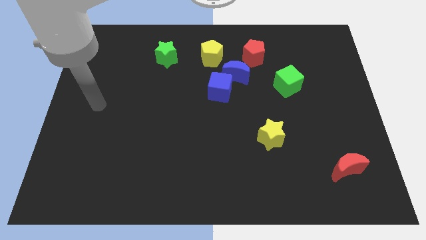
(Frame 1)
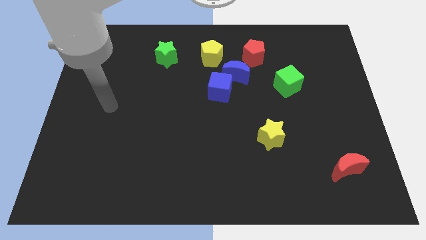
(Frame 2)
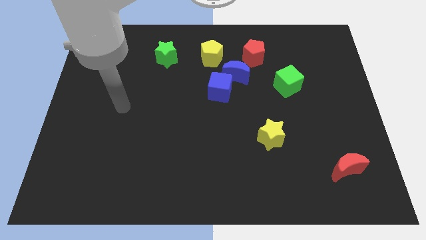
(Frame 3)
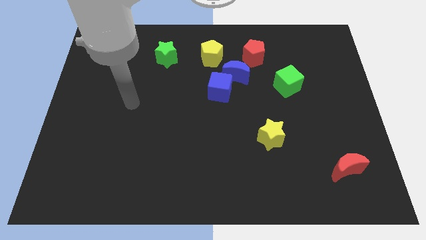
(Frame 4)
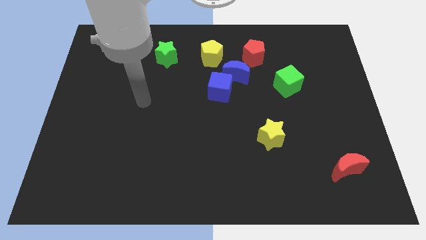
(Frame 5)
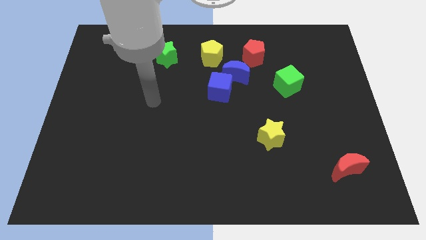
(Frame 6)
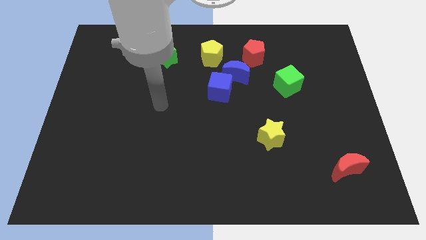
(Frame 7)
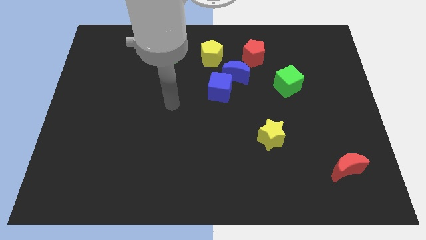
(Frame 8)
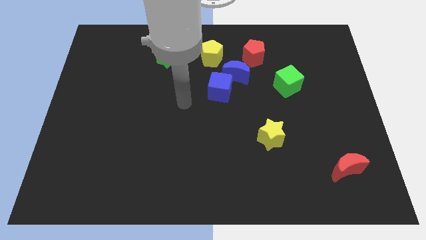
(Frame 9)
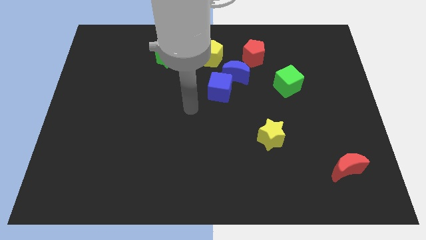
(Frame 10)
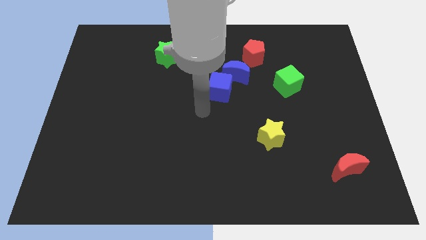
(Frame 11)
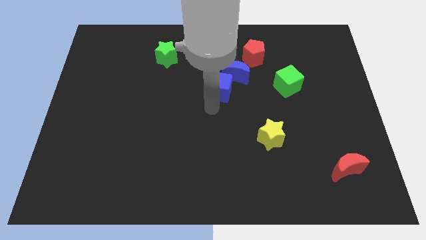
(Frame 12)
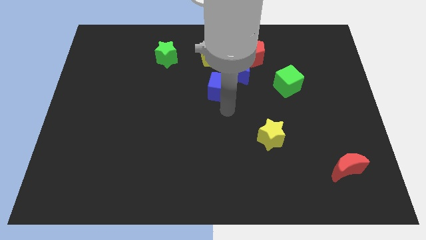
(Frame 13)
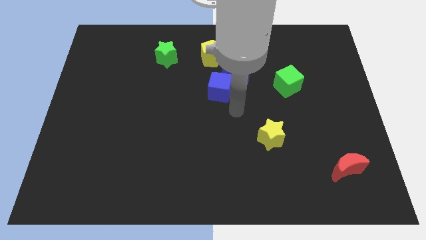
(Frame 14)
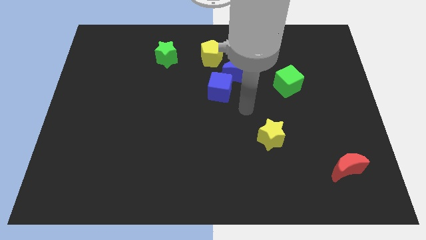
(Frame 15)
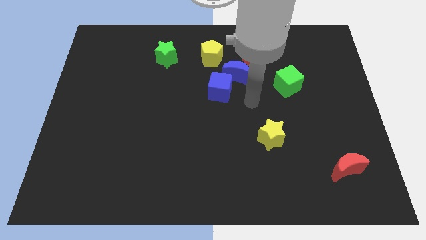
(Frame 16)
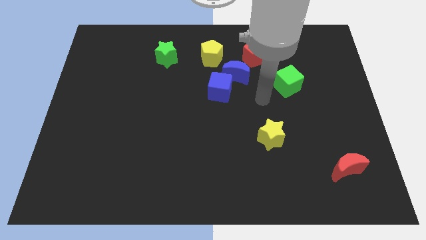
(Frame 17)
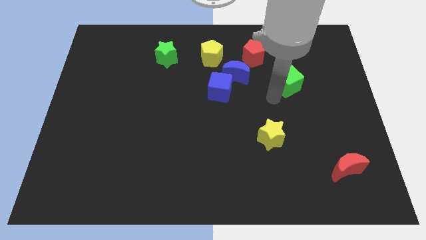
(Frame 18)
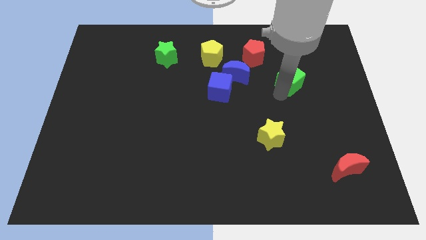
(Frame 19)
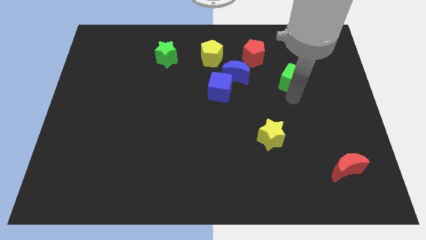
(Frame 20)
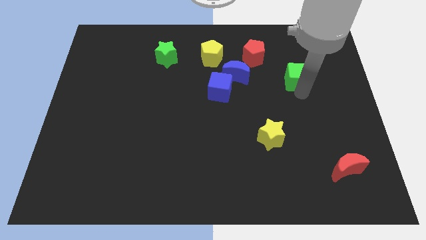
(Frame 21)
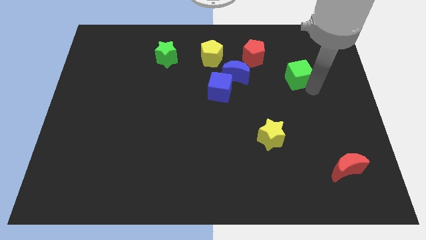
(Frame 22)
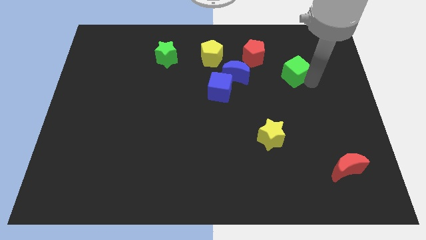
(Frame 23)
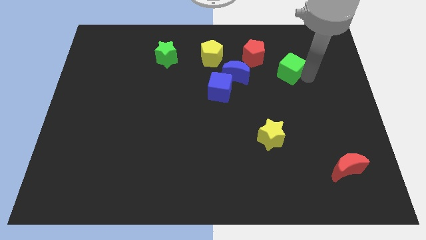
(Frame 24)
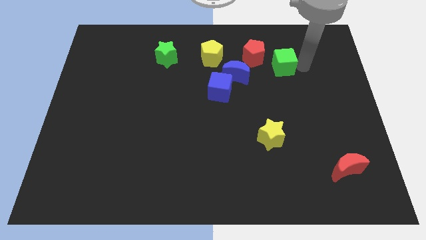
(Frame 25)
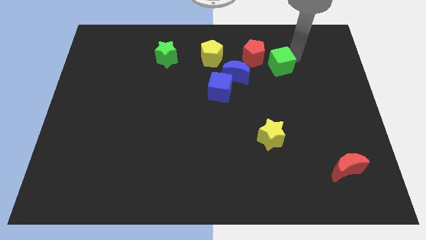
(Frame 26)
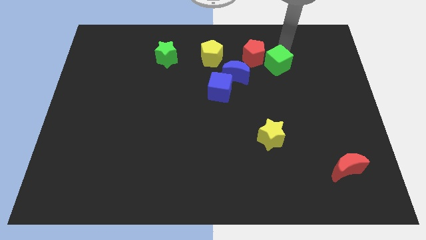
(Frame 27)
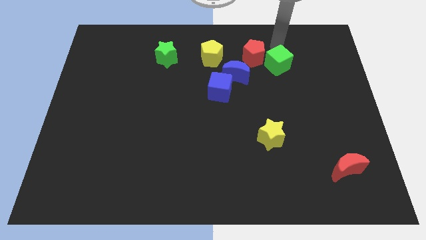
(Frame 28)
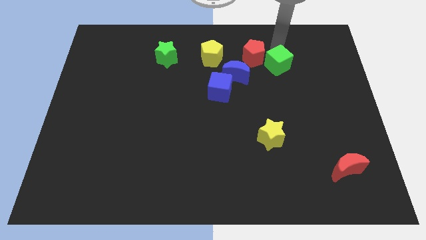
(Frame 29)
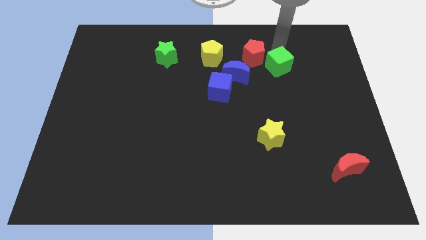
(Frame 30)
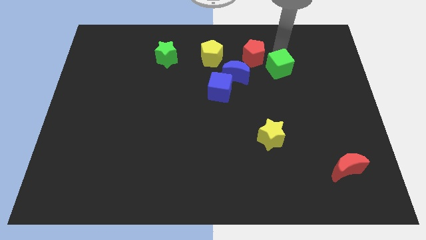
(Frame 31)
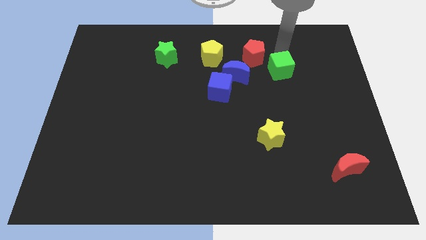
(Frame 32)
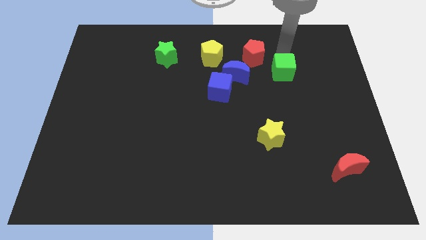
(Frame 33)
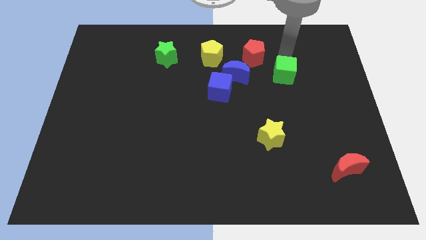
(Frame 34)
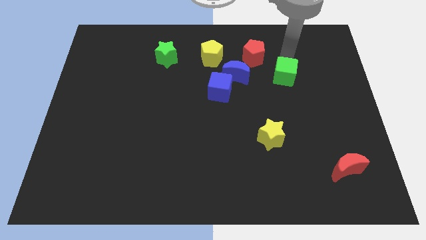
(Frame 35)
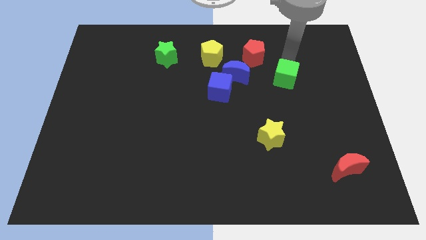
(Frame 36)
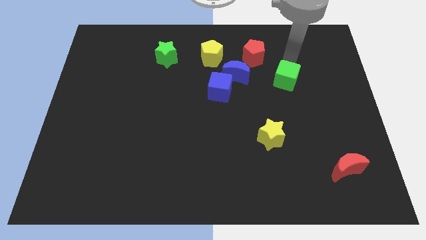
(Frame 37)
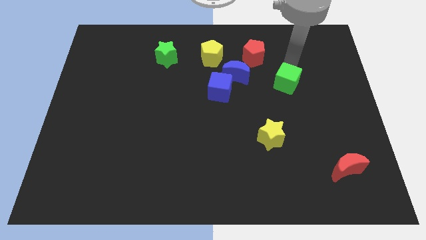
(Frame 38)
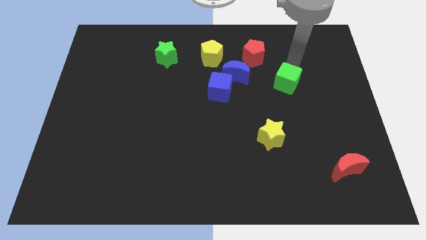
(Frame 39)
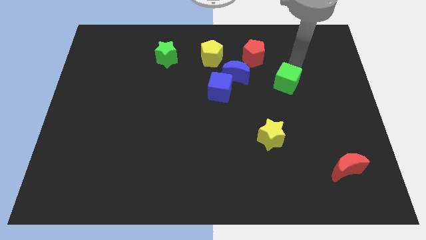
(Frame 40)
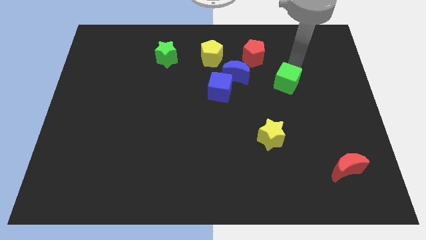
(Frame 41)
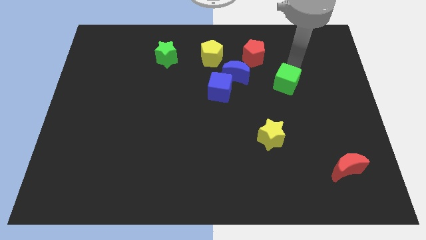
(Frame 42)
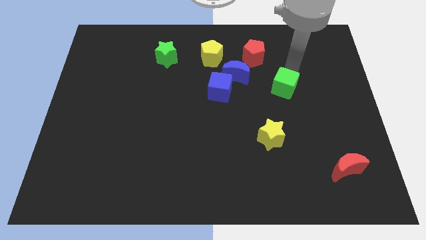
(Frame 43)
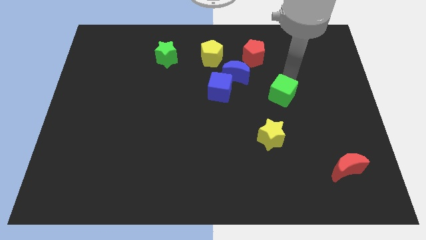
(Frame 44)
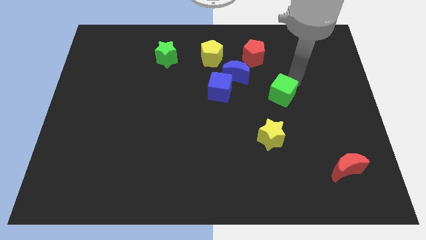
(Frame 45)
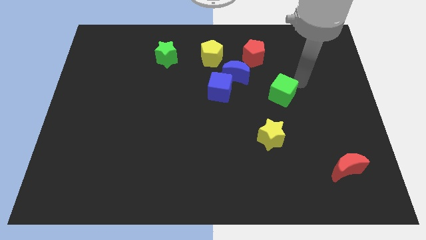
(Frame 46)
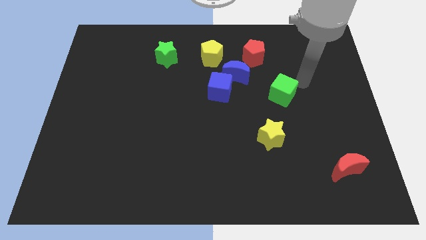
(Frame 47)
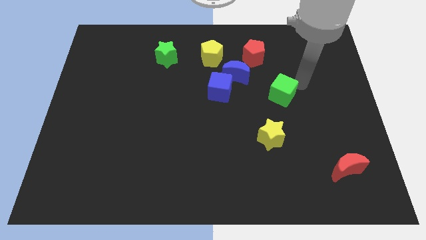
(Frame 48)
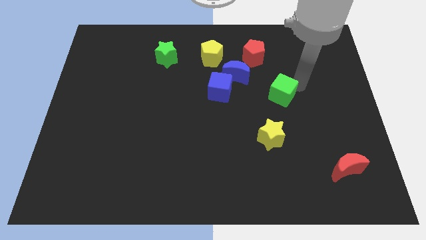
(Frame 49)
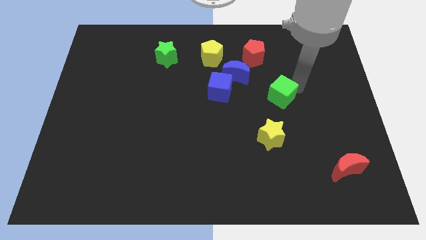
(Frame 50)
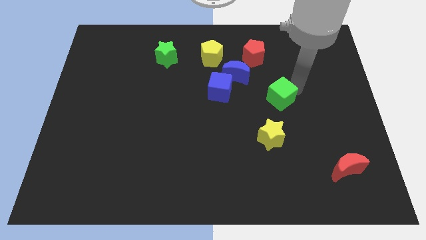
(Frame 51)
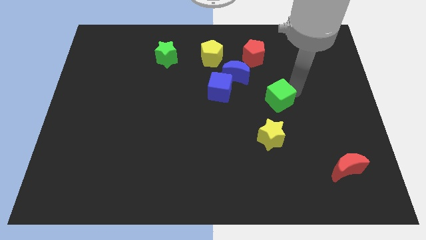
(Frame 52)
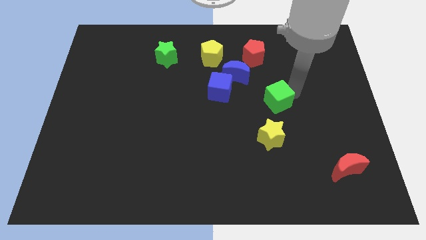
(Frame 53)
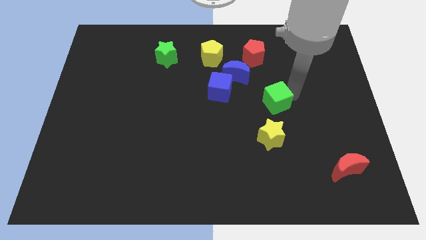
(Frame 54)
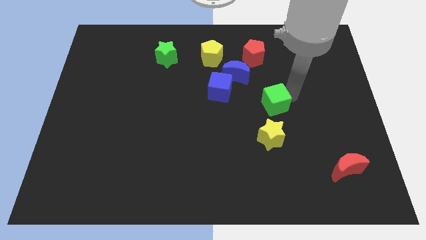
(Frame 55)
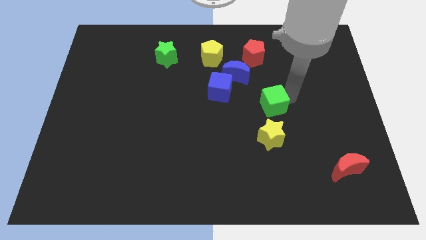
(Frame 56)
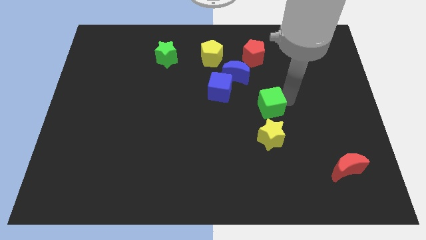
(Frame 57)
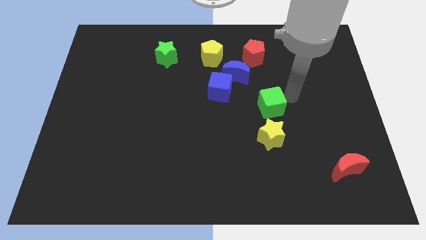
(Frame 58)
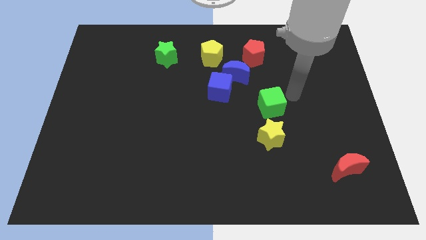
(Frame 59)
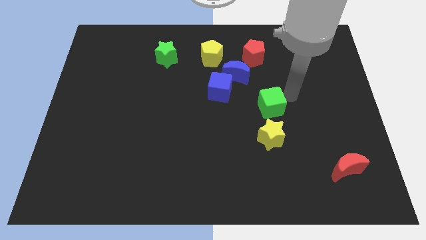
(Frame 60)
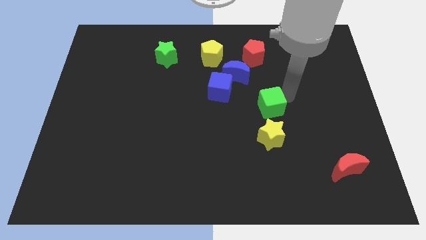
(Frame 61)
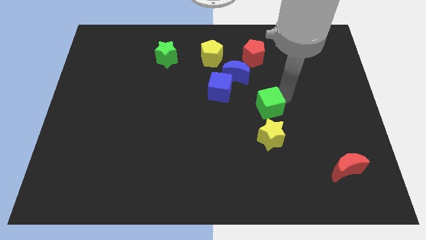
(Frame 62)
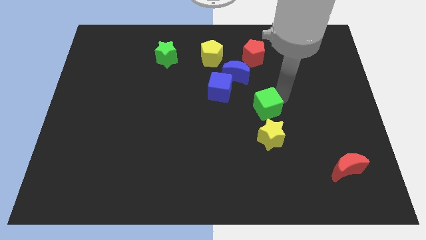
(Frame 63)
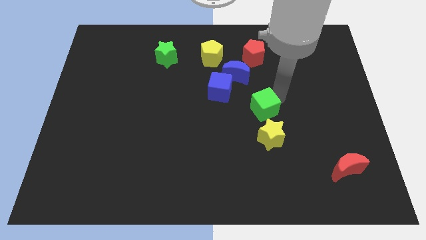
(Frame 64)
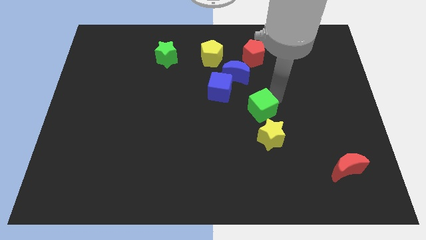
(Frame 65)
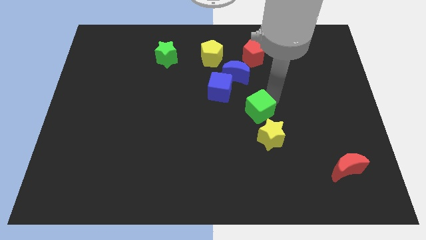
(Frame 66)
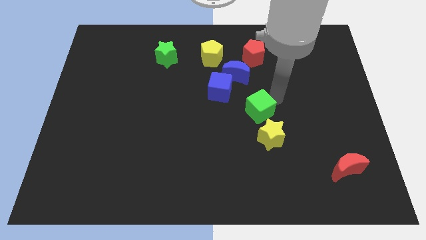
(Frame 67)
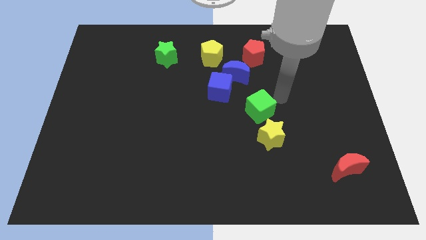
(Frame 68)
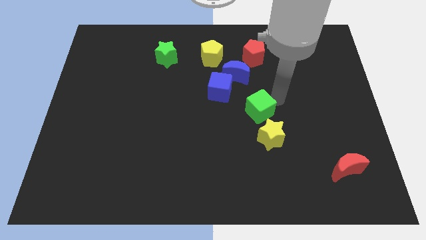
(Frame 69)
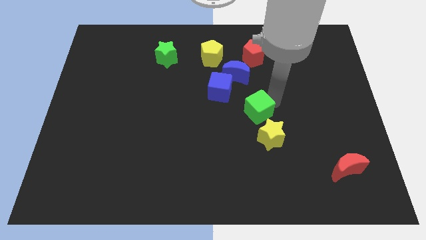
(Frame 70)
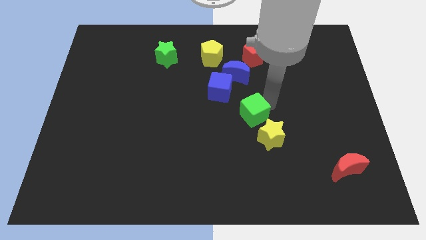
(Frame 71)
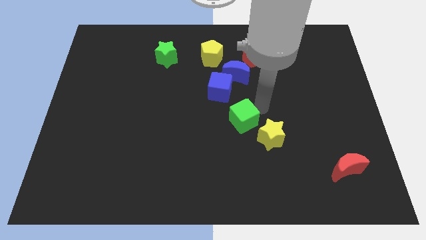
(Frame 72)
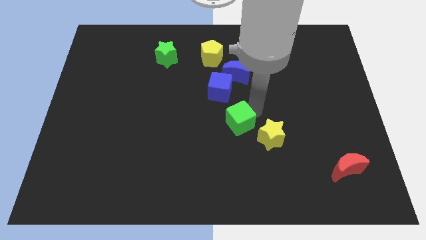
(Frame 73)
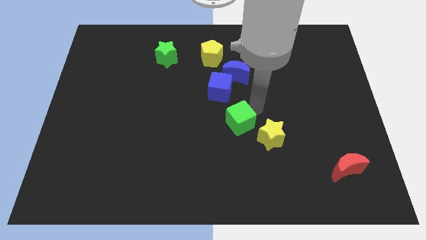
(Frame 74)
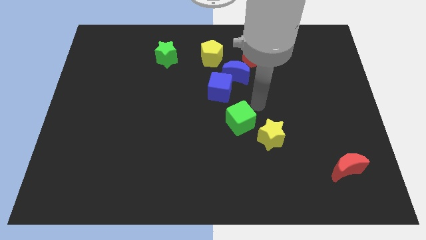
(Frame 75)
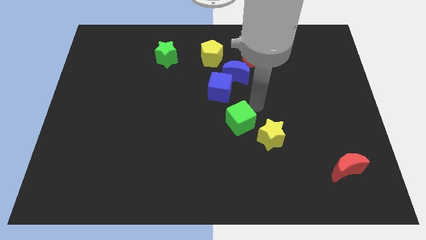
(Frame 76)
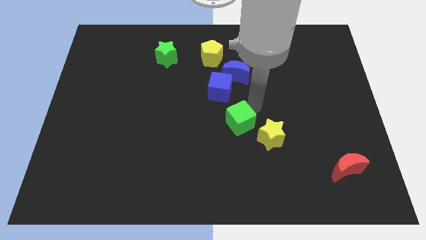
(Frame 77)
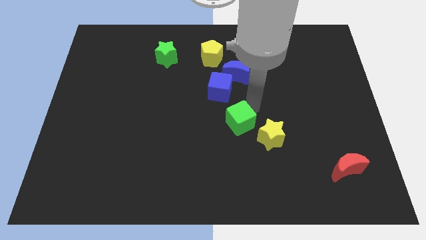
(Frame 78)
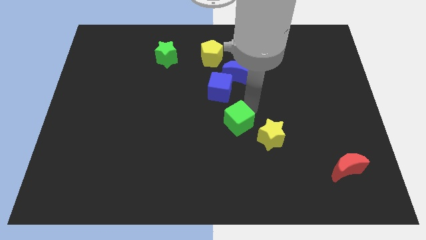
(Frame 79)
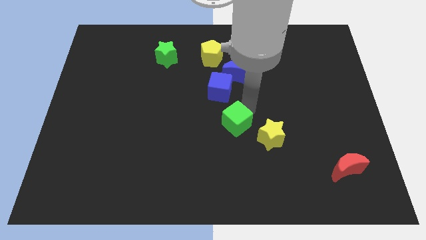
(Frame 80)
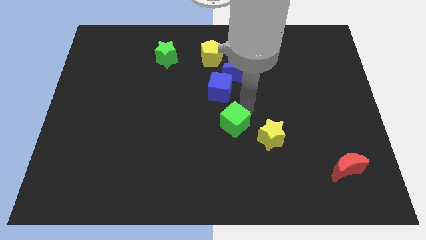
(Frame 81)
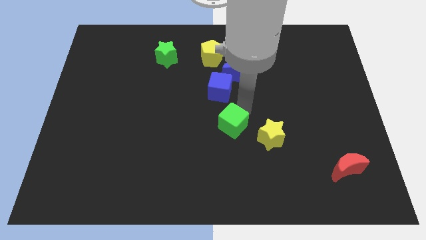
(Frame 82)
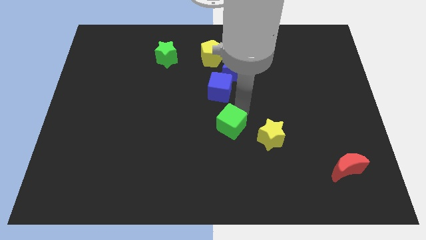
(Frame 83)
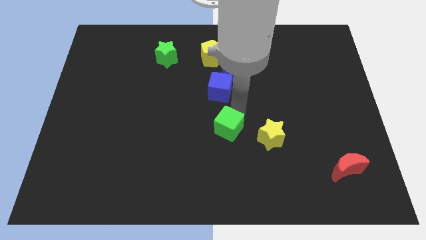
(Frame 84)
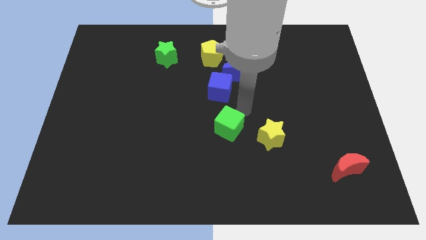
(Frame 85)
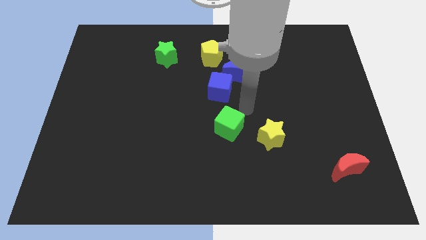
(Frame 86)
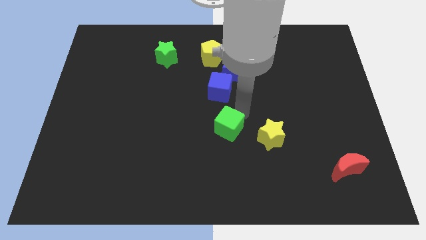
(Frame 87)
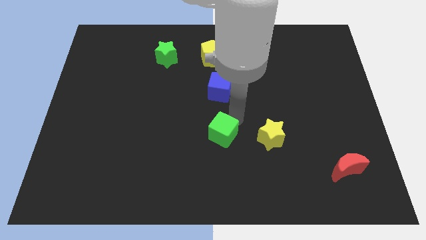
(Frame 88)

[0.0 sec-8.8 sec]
slide the green cube downwards and left diagonally
